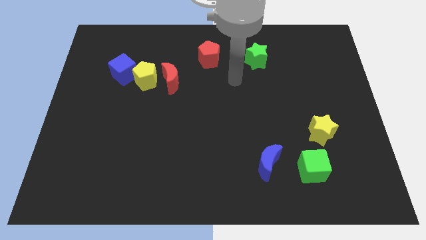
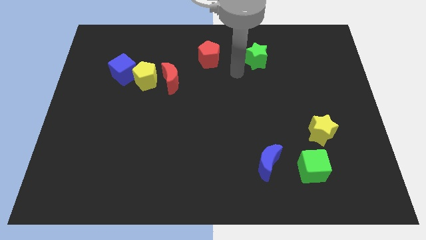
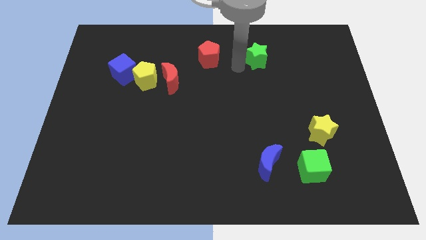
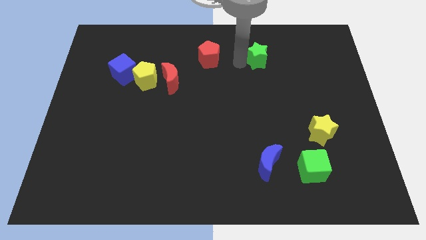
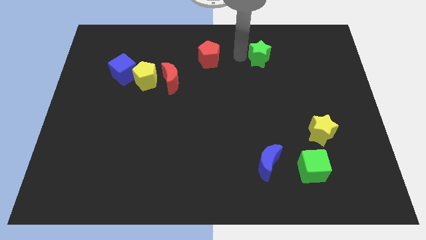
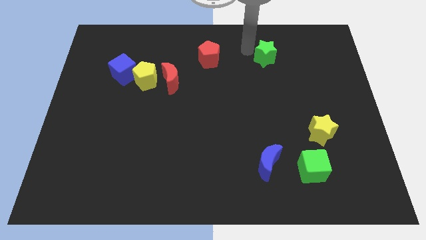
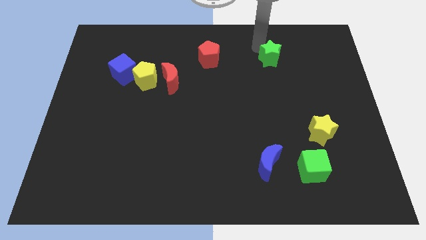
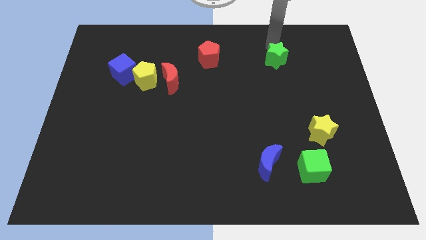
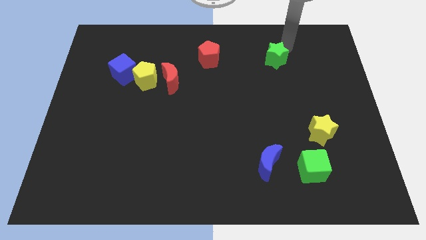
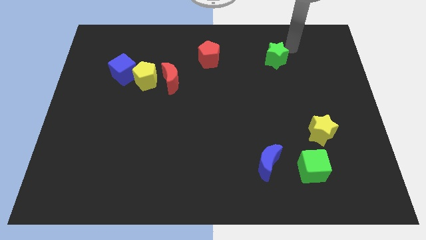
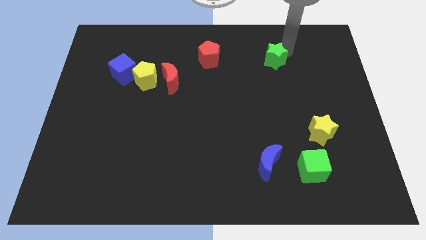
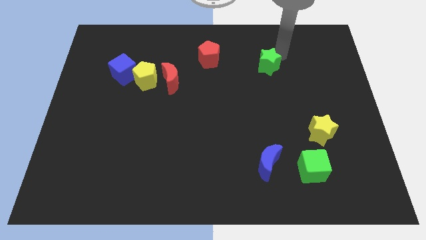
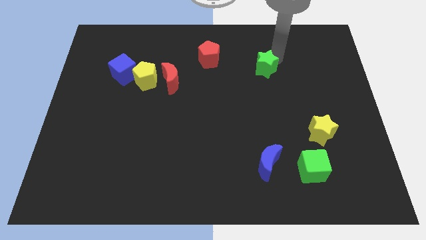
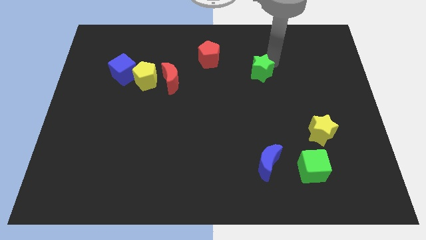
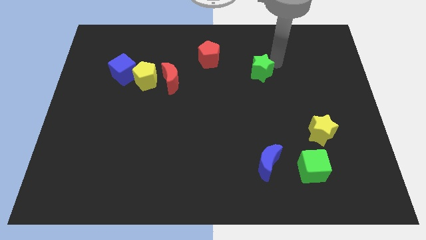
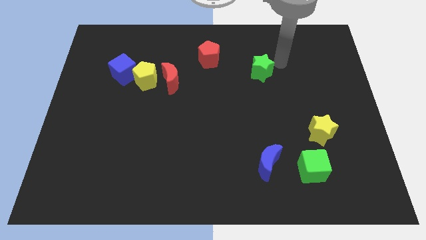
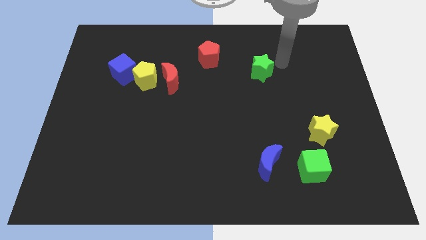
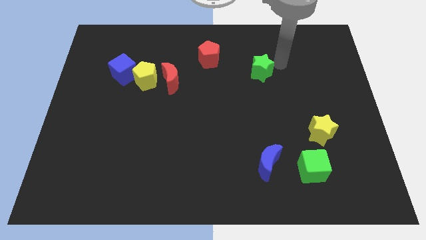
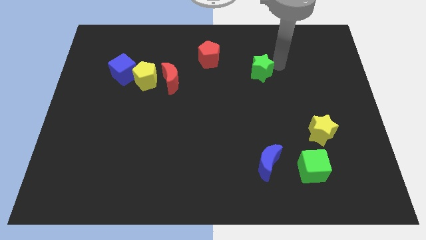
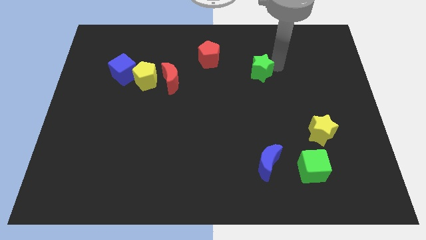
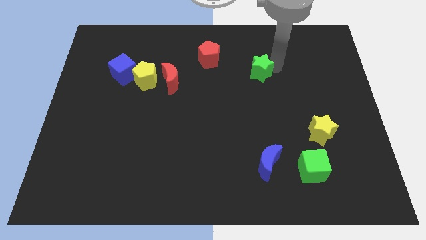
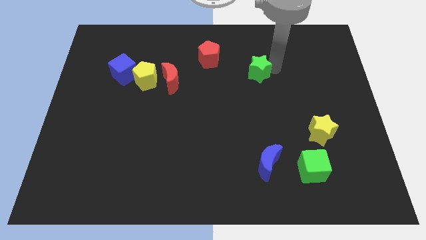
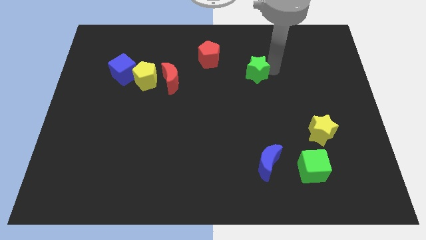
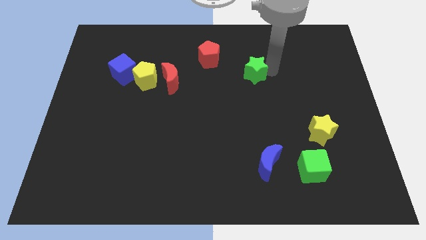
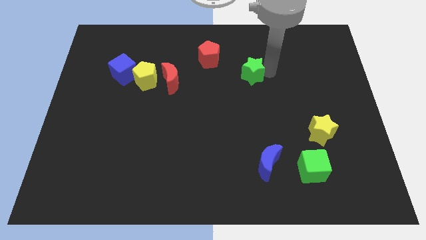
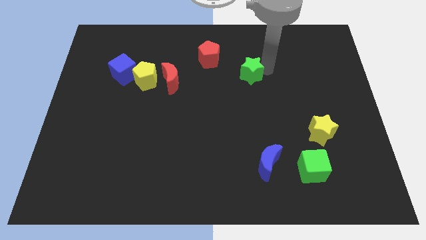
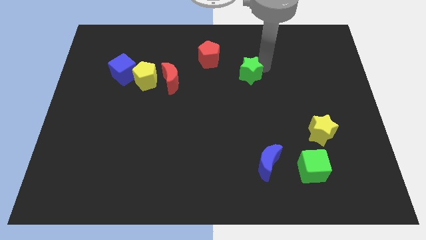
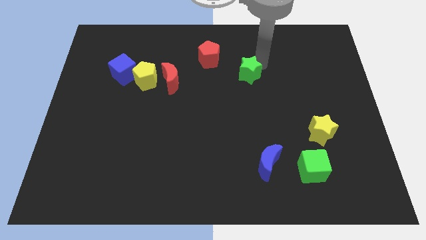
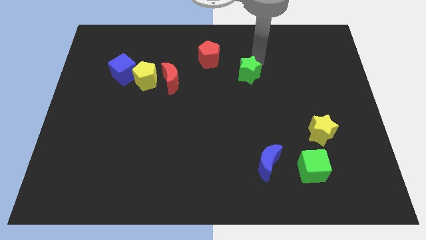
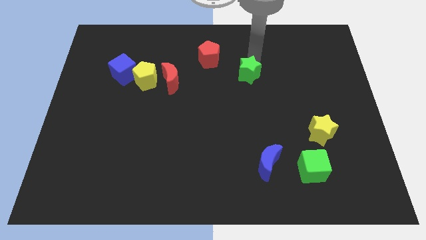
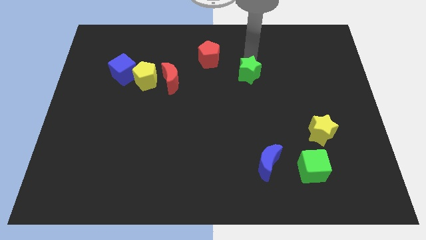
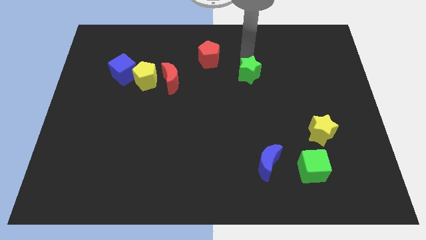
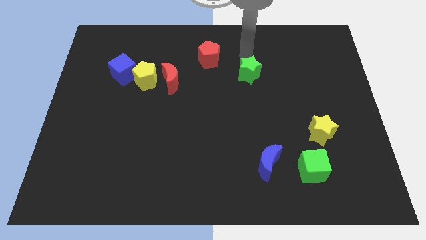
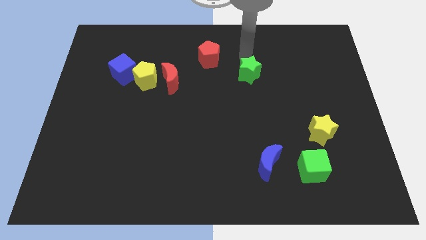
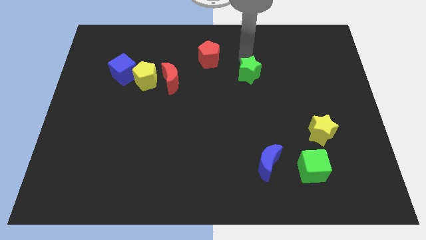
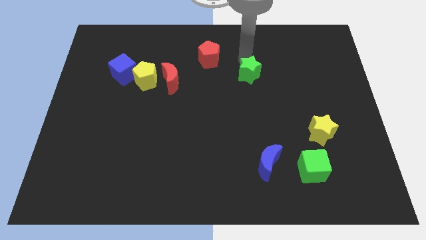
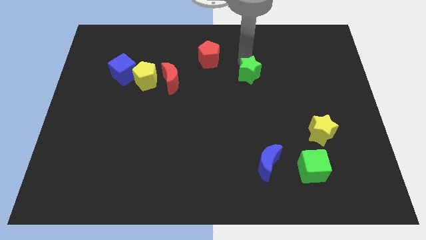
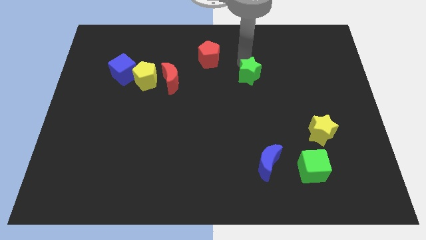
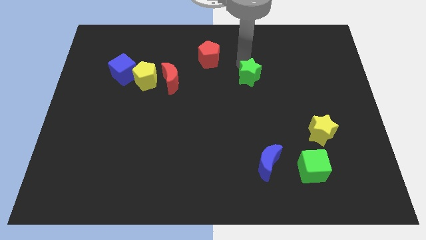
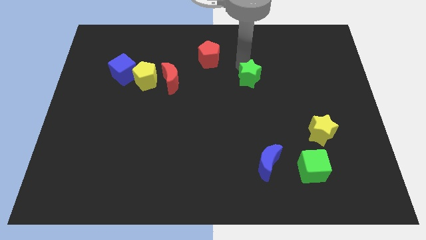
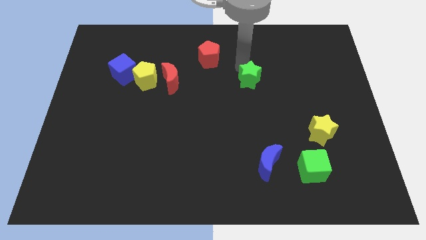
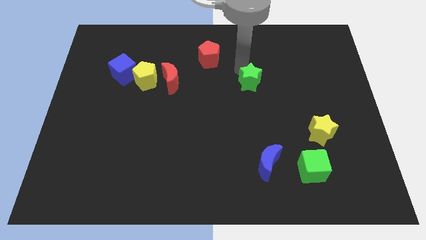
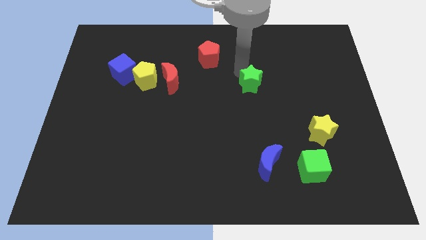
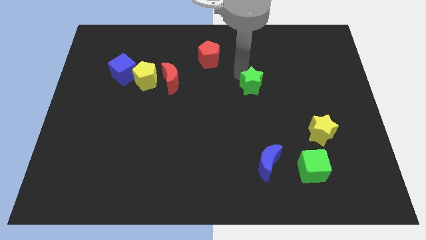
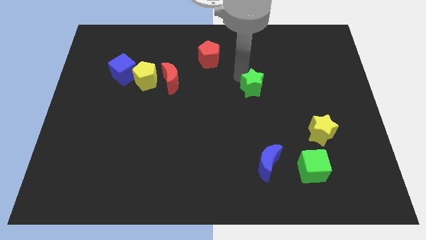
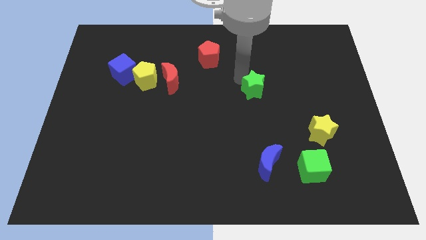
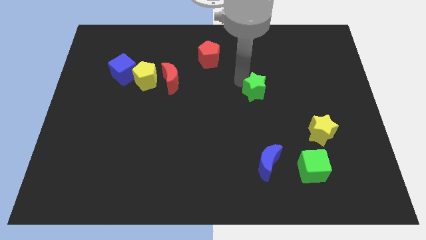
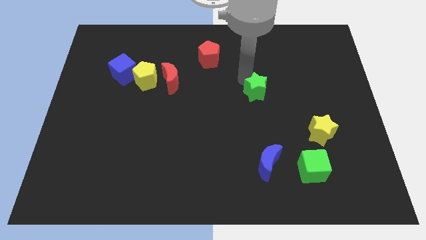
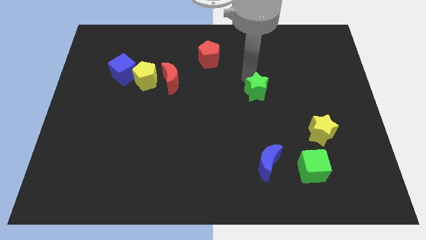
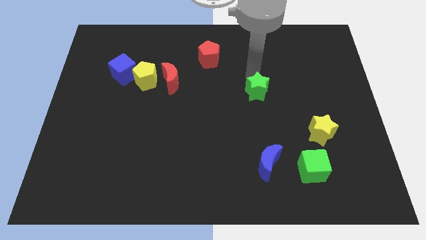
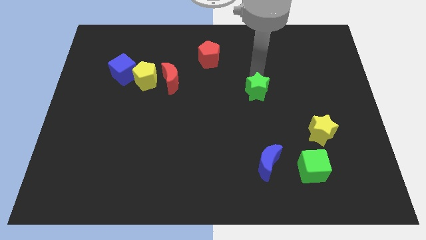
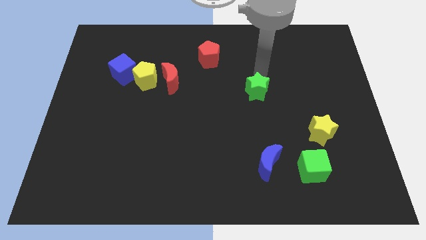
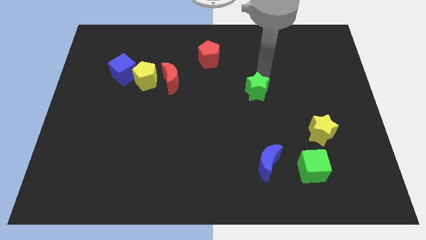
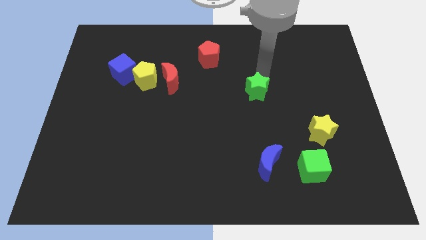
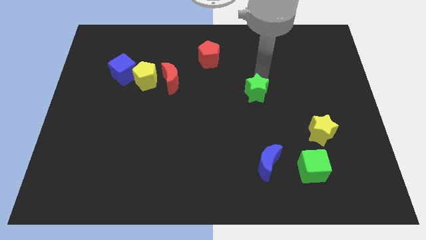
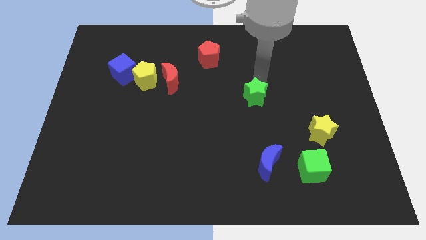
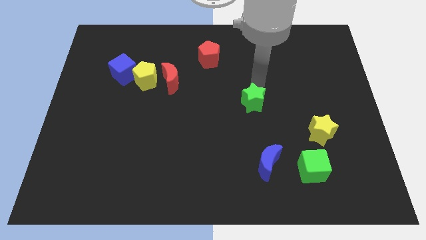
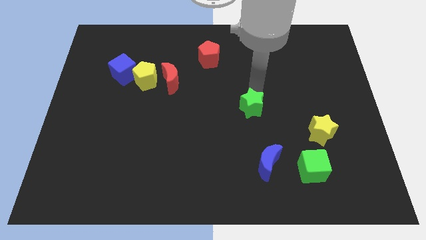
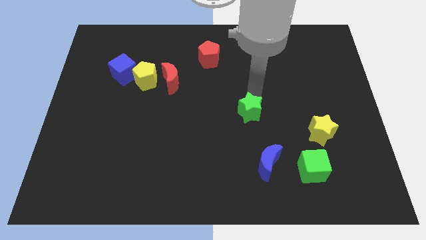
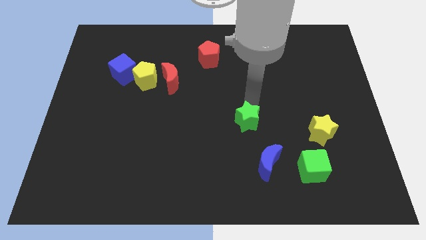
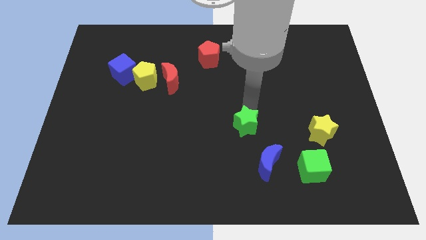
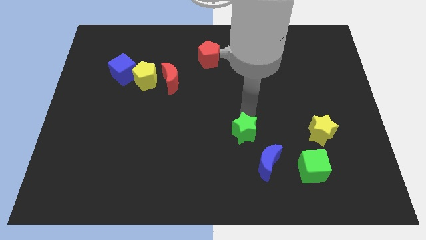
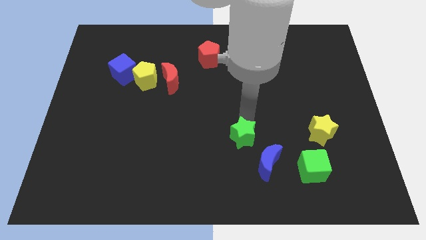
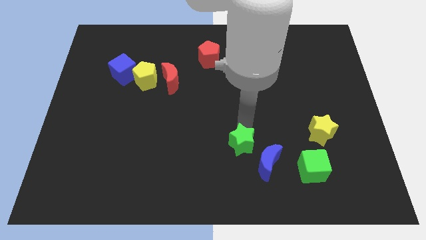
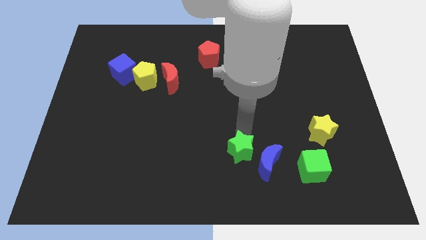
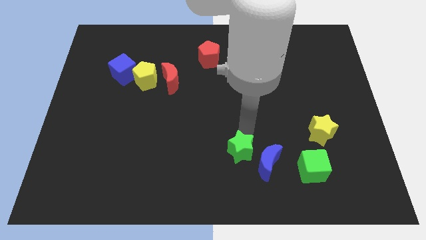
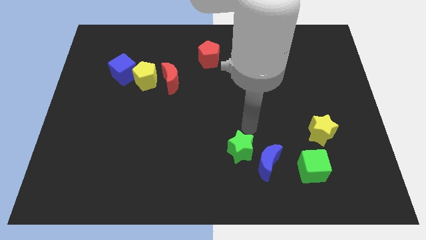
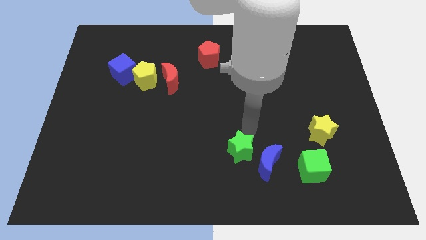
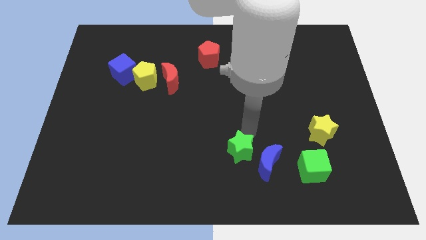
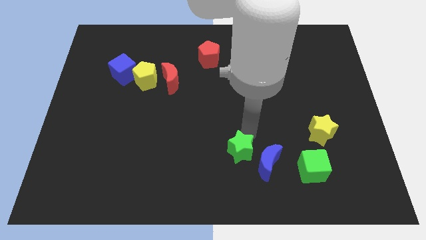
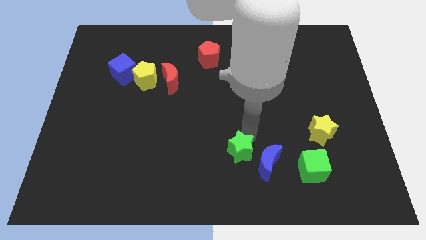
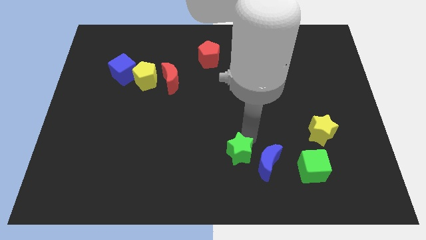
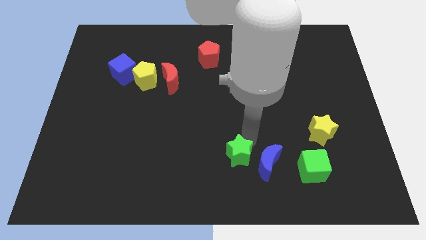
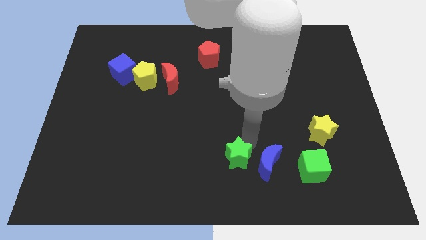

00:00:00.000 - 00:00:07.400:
slide the green star to the bottom side
